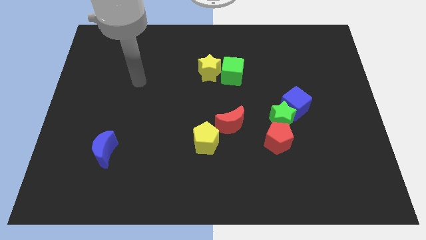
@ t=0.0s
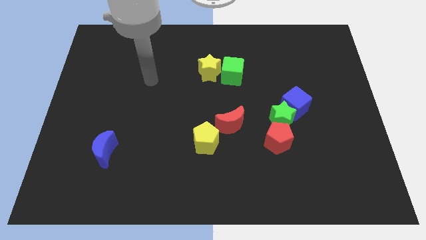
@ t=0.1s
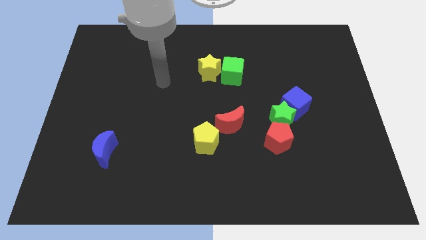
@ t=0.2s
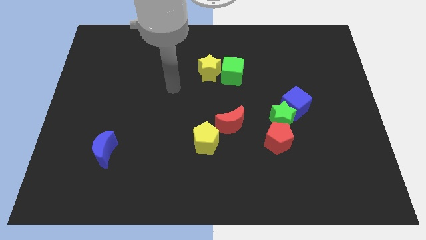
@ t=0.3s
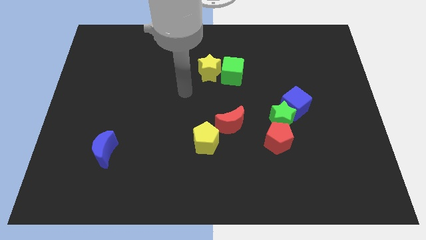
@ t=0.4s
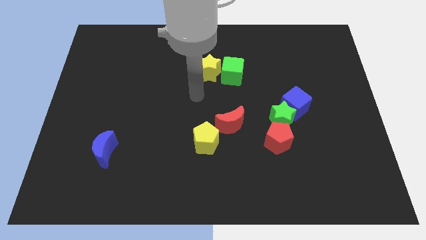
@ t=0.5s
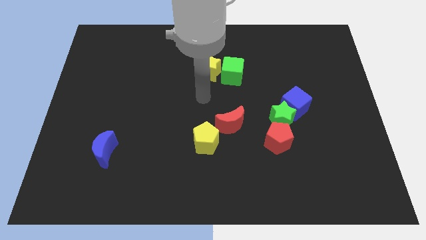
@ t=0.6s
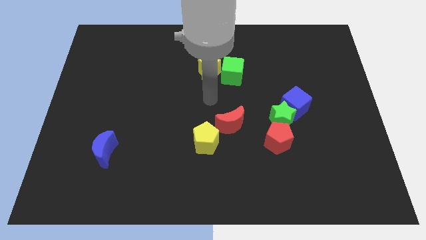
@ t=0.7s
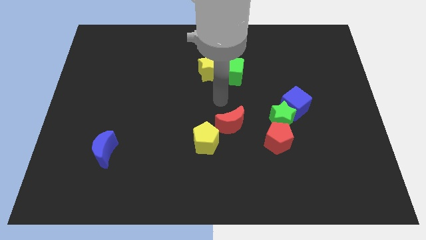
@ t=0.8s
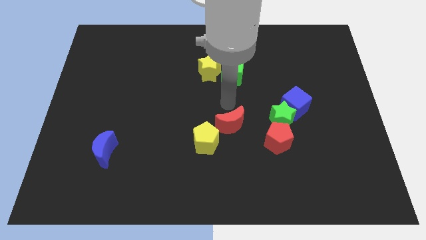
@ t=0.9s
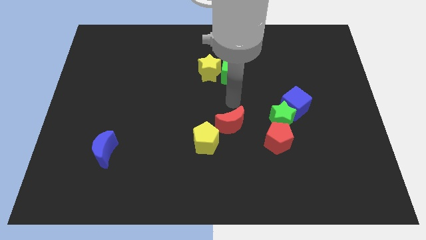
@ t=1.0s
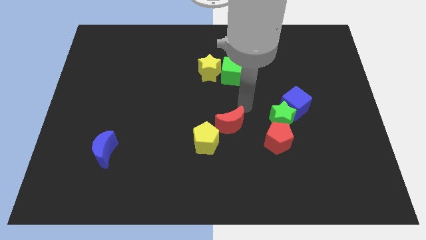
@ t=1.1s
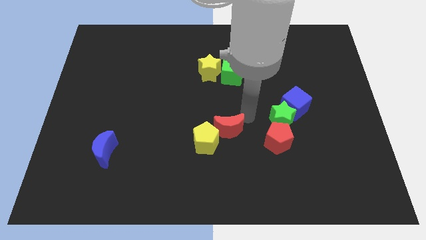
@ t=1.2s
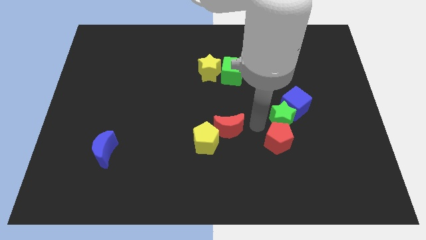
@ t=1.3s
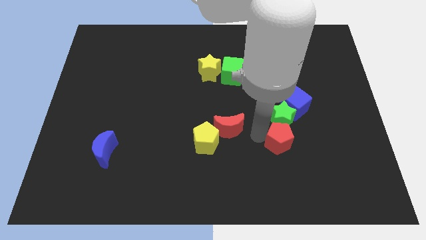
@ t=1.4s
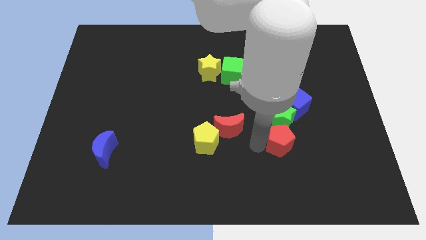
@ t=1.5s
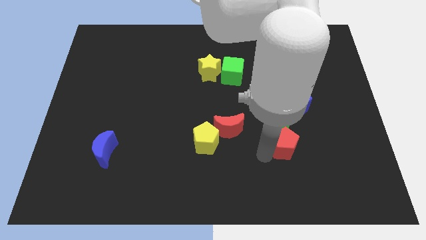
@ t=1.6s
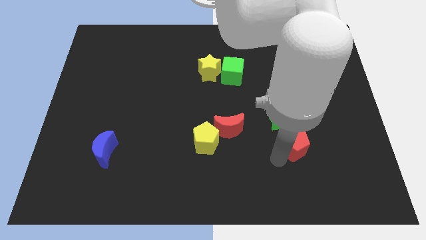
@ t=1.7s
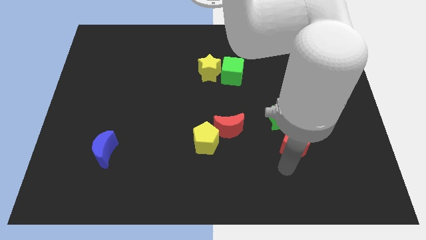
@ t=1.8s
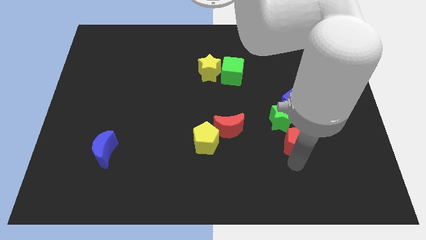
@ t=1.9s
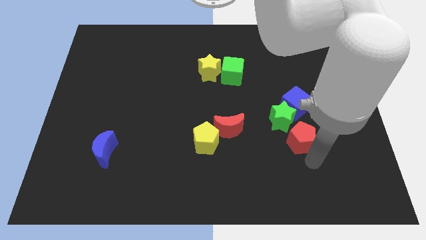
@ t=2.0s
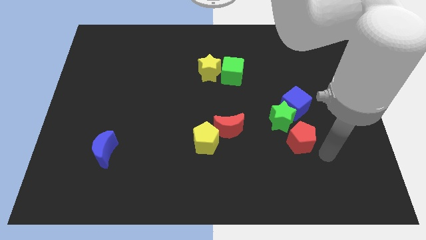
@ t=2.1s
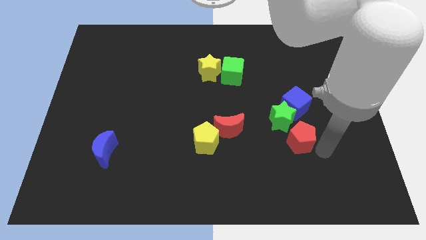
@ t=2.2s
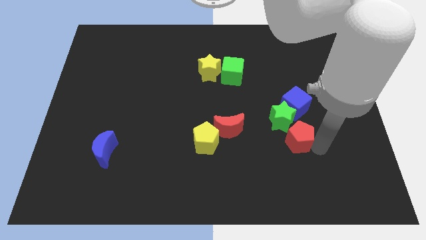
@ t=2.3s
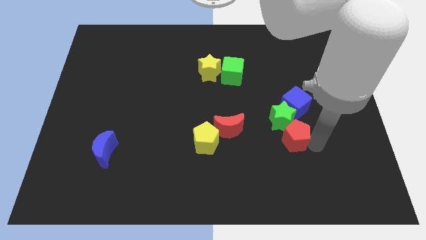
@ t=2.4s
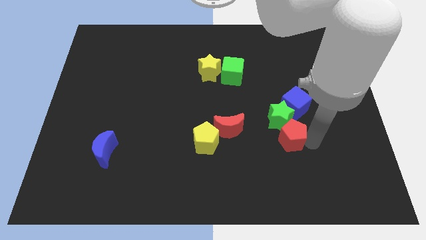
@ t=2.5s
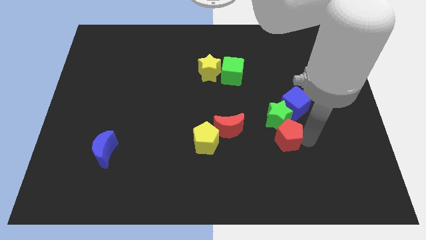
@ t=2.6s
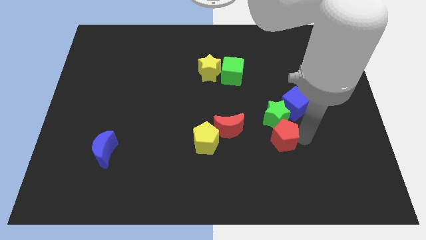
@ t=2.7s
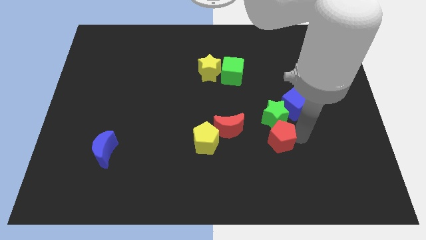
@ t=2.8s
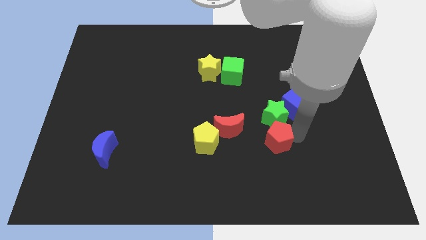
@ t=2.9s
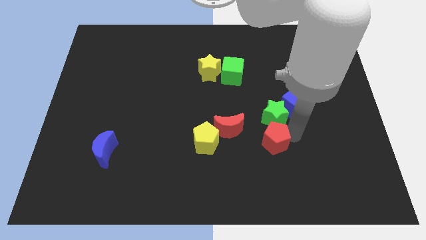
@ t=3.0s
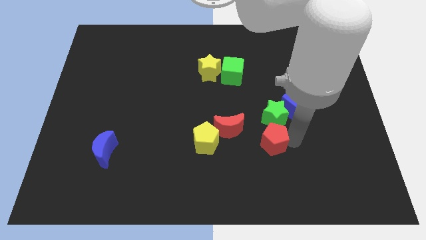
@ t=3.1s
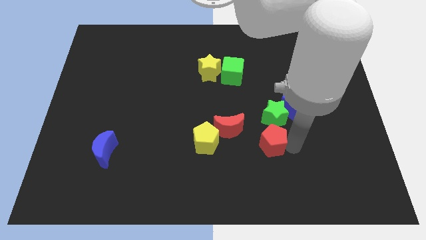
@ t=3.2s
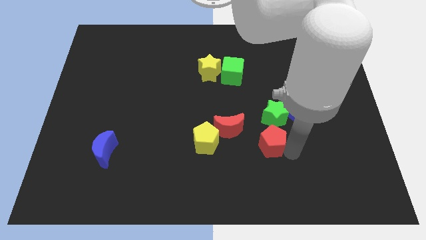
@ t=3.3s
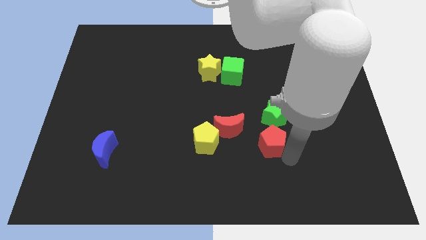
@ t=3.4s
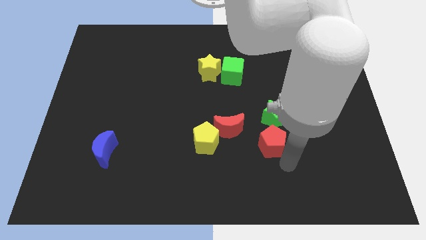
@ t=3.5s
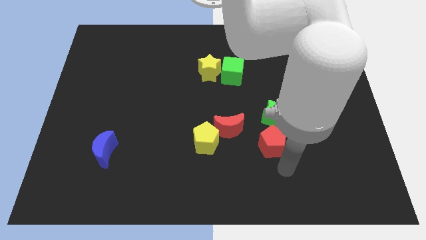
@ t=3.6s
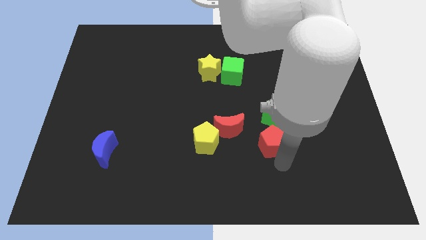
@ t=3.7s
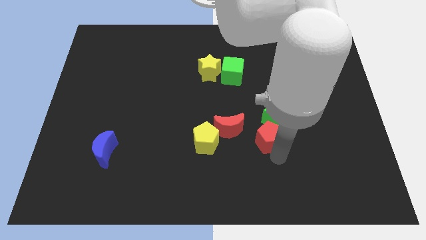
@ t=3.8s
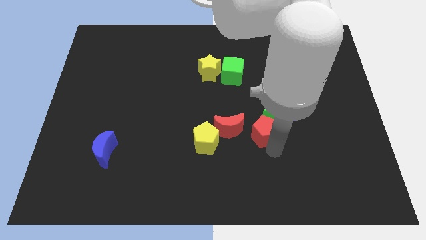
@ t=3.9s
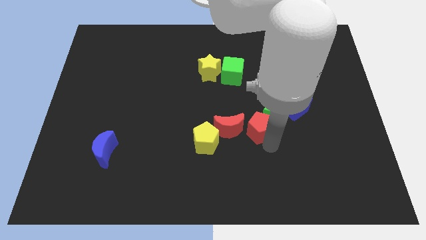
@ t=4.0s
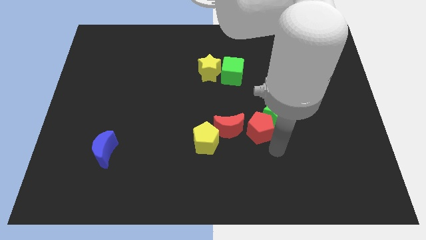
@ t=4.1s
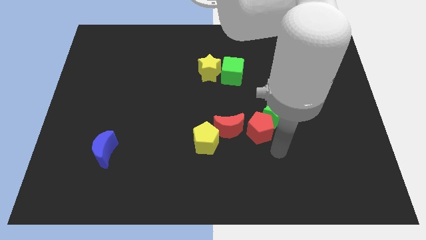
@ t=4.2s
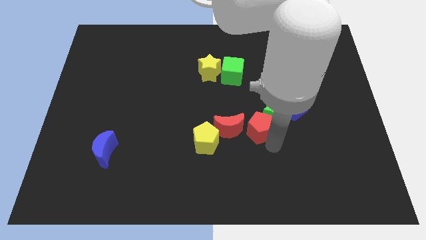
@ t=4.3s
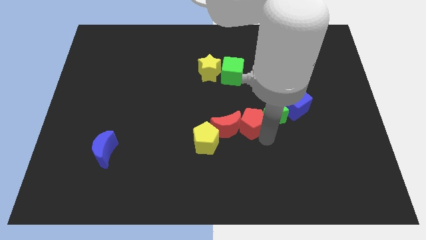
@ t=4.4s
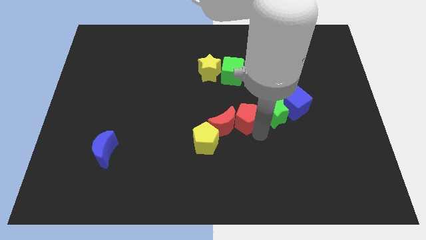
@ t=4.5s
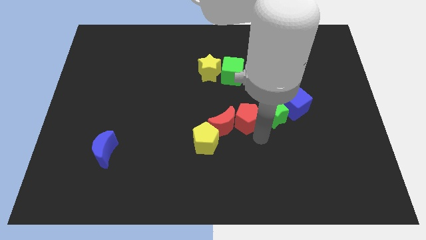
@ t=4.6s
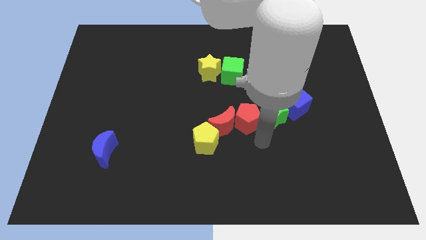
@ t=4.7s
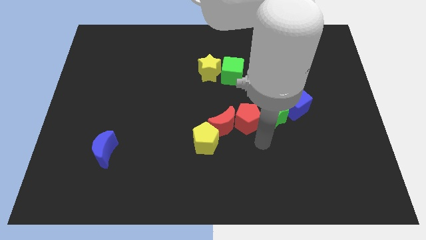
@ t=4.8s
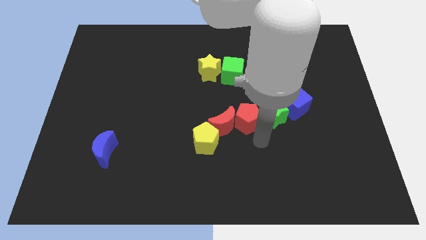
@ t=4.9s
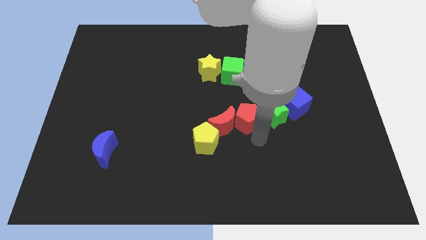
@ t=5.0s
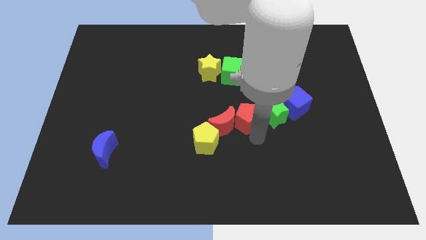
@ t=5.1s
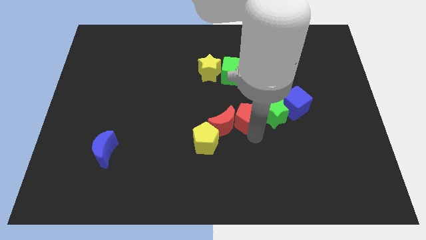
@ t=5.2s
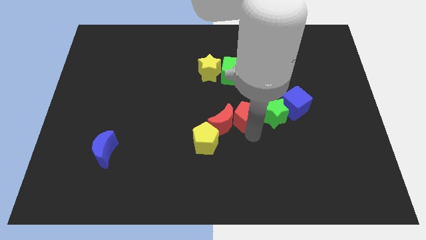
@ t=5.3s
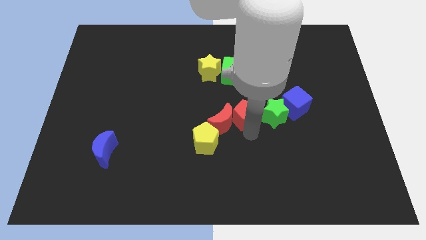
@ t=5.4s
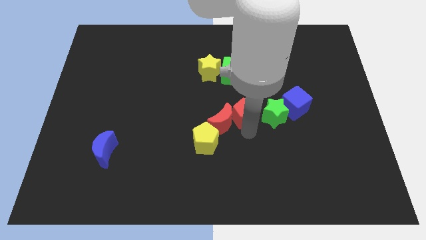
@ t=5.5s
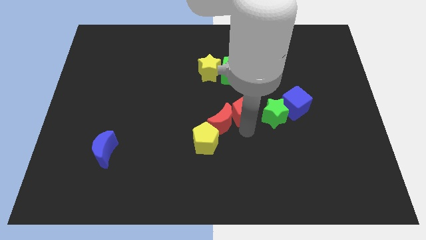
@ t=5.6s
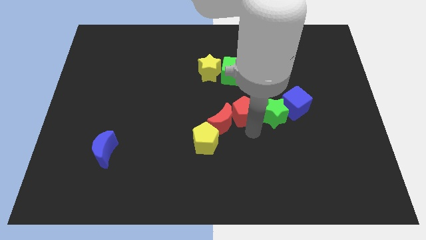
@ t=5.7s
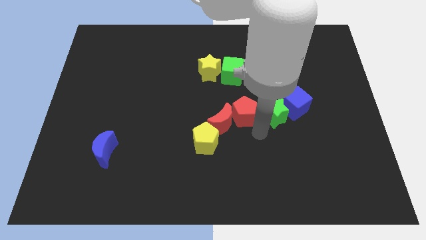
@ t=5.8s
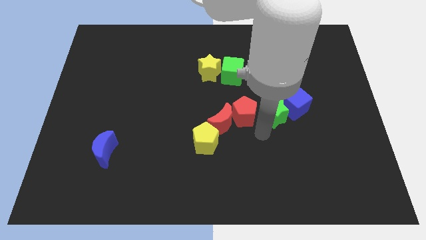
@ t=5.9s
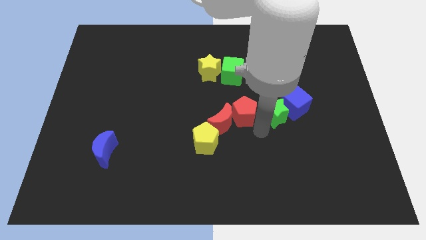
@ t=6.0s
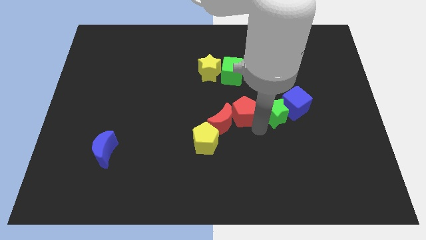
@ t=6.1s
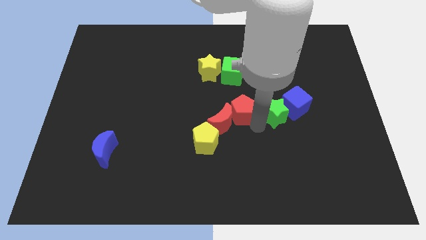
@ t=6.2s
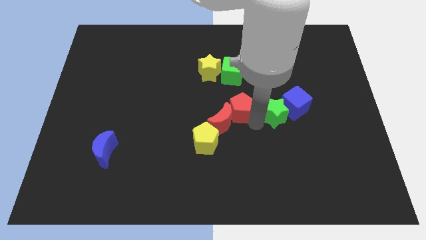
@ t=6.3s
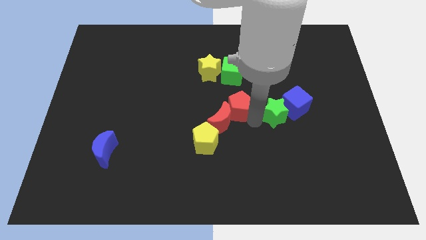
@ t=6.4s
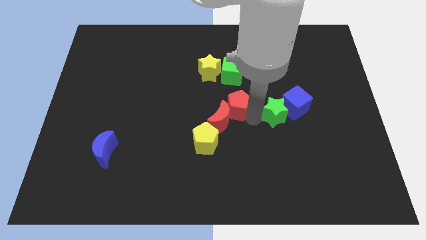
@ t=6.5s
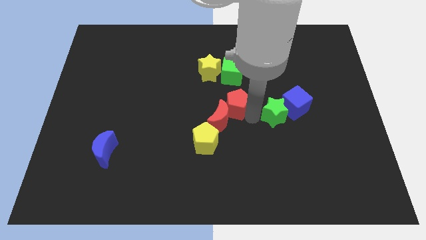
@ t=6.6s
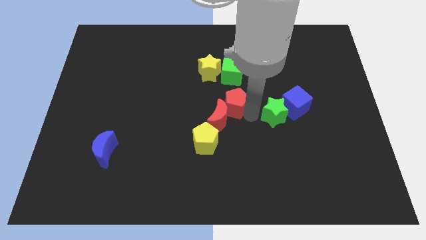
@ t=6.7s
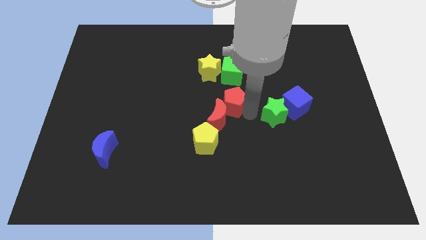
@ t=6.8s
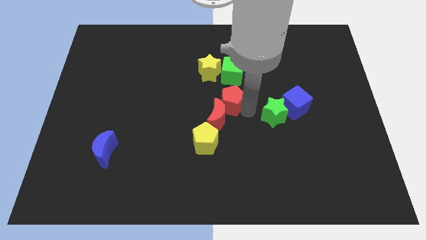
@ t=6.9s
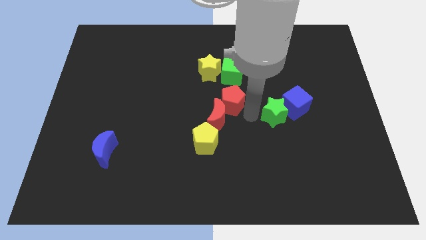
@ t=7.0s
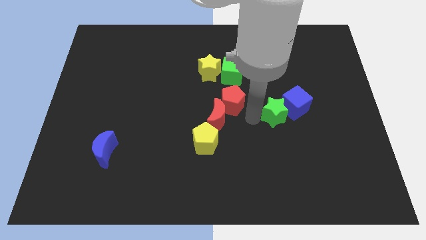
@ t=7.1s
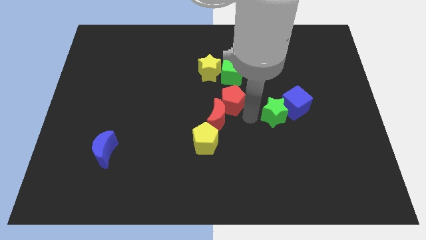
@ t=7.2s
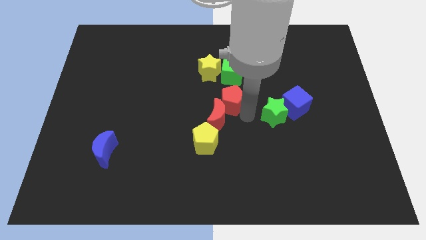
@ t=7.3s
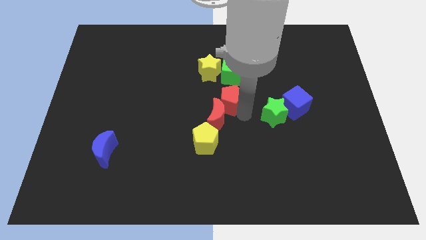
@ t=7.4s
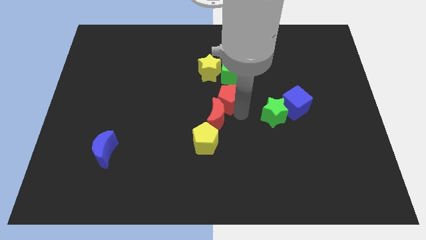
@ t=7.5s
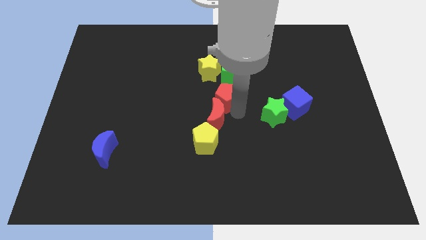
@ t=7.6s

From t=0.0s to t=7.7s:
slide the red pentagon to the bottom left side of the green cube
